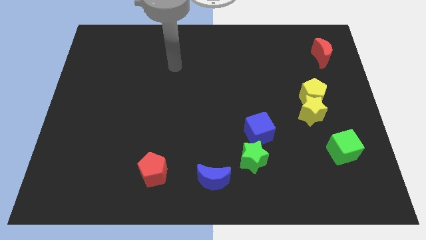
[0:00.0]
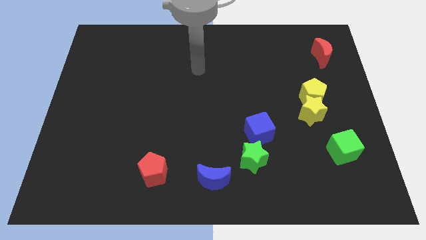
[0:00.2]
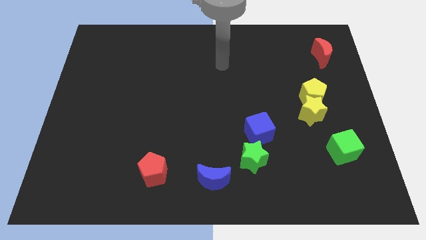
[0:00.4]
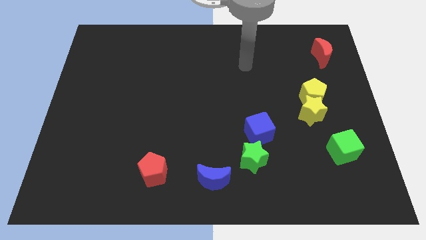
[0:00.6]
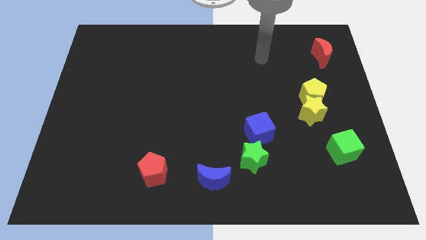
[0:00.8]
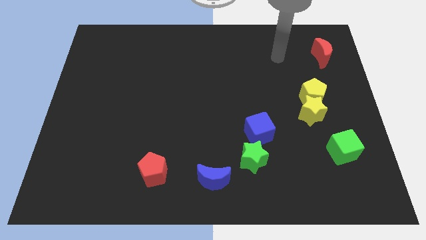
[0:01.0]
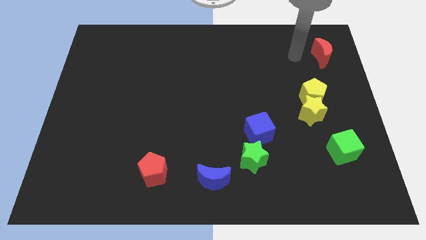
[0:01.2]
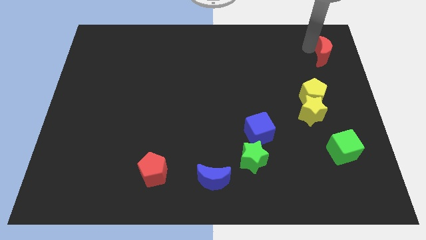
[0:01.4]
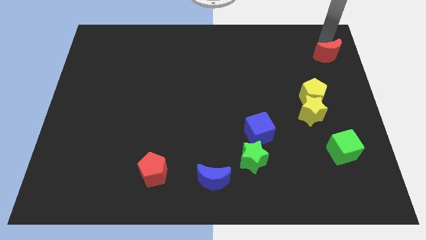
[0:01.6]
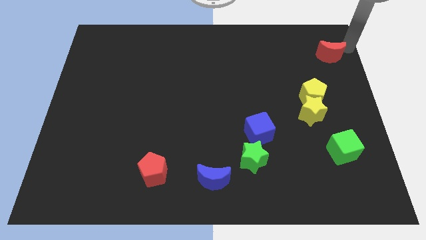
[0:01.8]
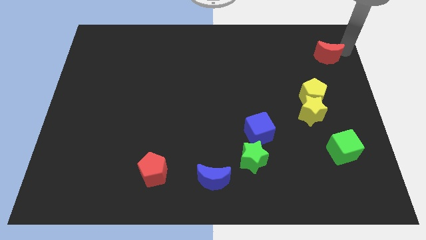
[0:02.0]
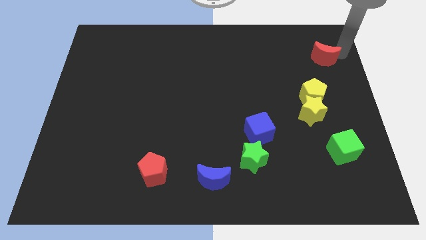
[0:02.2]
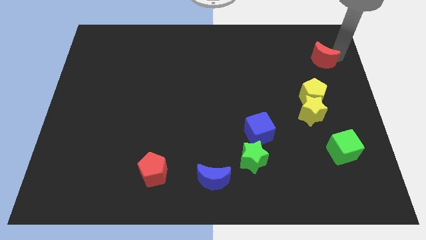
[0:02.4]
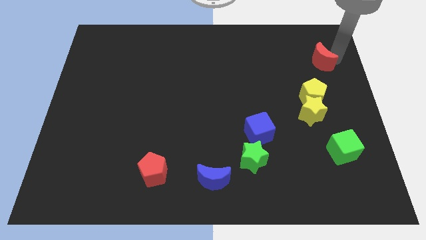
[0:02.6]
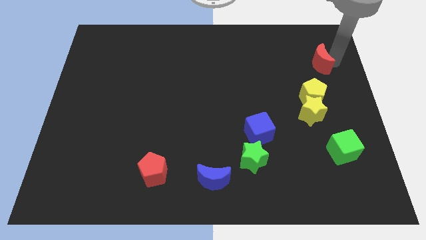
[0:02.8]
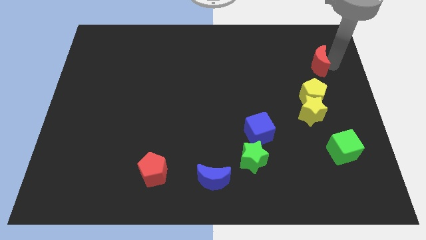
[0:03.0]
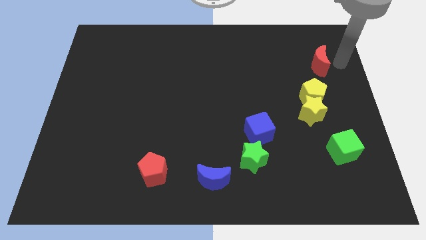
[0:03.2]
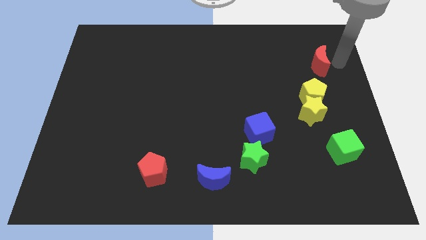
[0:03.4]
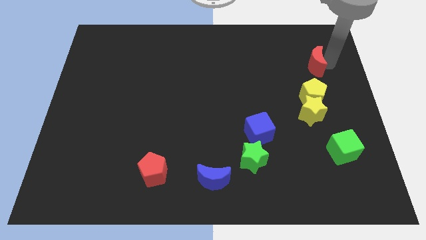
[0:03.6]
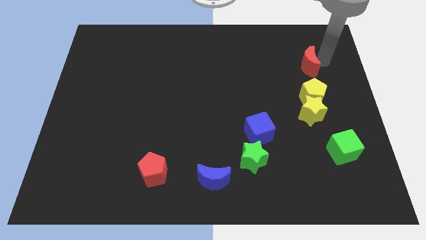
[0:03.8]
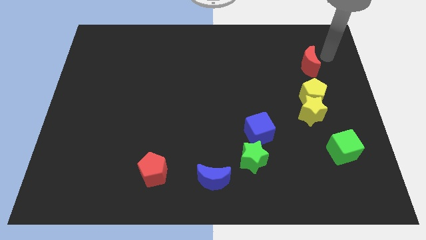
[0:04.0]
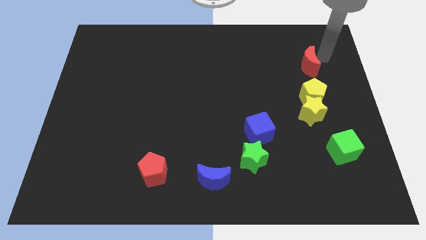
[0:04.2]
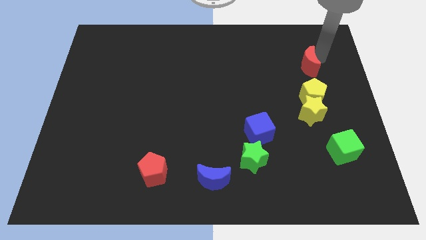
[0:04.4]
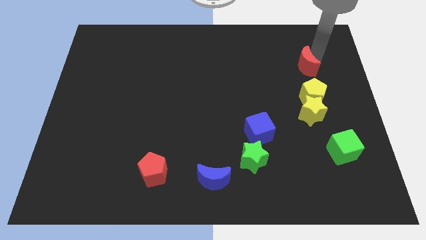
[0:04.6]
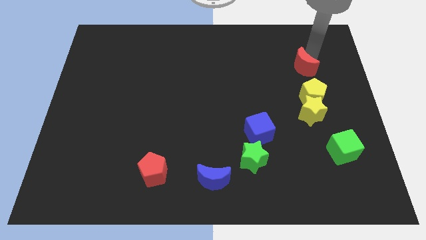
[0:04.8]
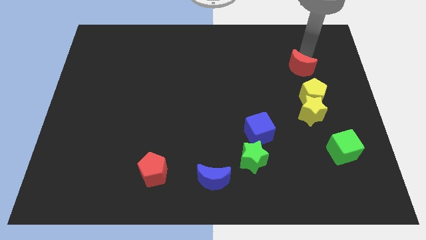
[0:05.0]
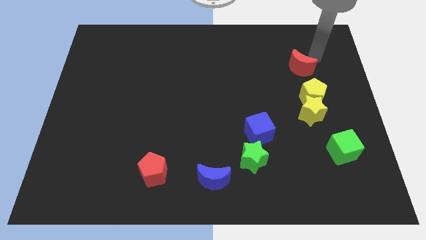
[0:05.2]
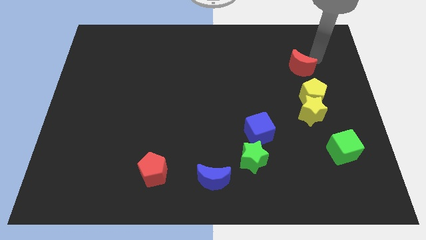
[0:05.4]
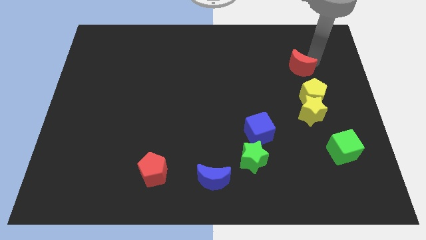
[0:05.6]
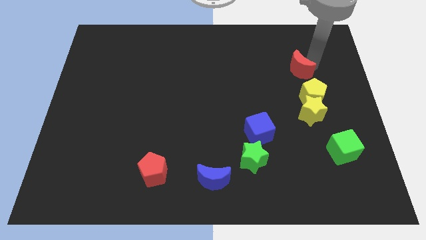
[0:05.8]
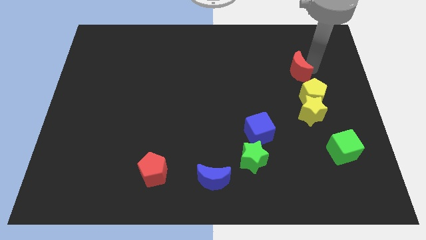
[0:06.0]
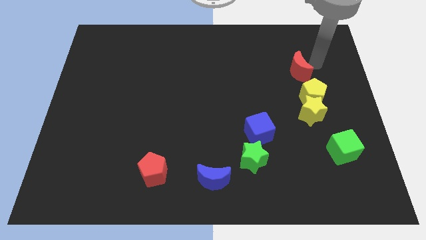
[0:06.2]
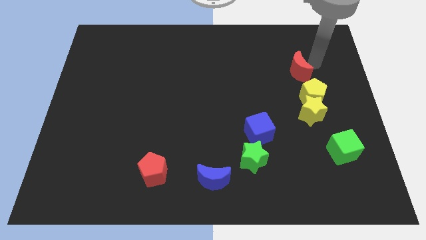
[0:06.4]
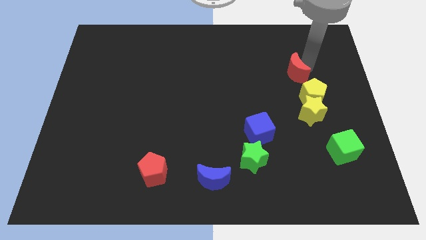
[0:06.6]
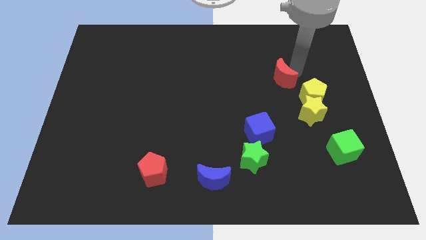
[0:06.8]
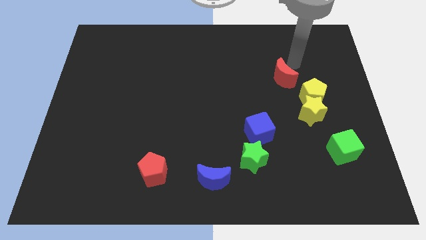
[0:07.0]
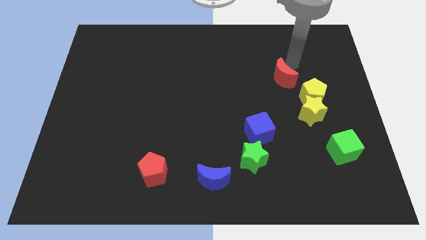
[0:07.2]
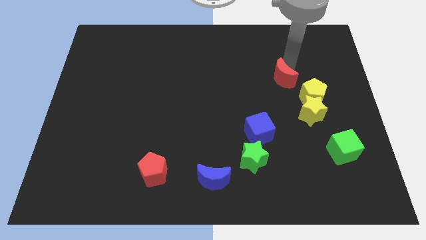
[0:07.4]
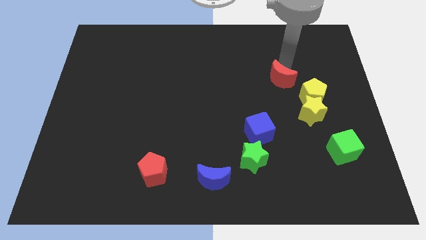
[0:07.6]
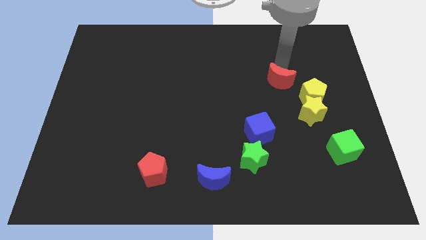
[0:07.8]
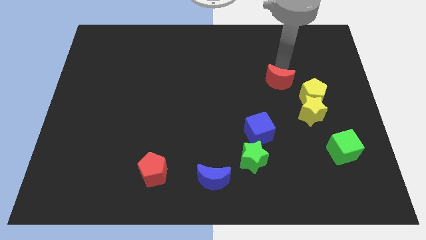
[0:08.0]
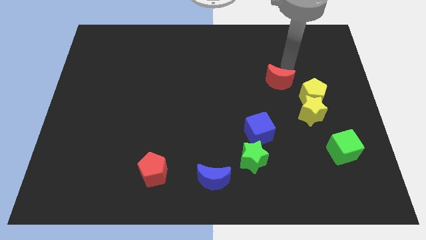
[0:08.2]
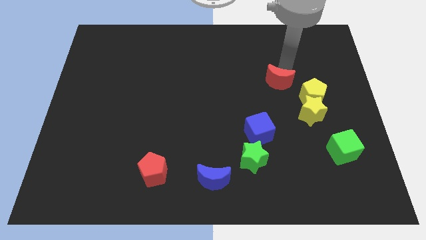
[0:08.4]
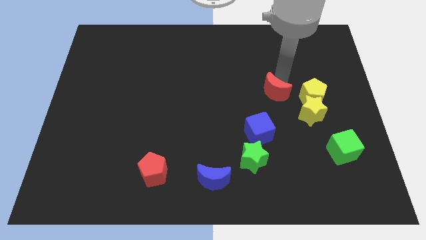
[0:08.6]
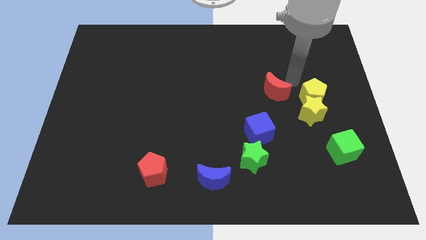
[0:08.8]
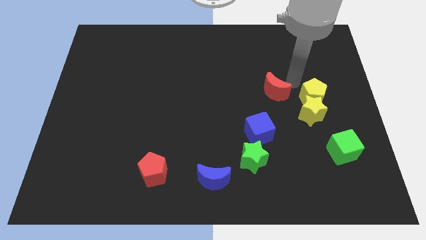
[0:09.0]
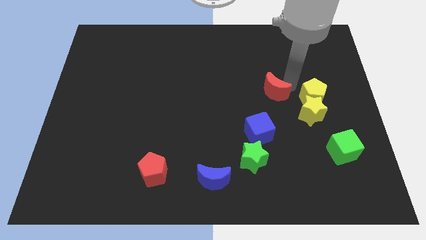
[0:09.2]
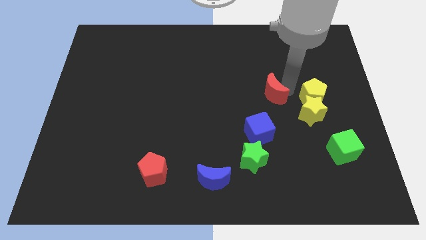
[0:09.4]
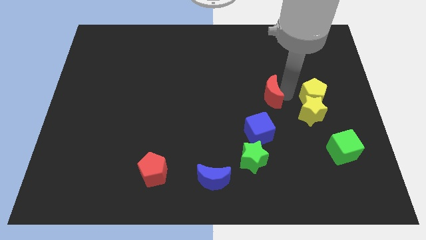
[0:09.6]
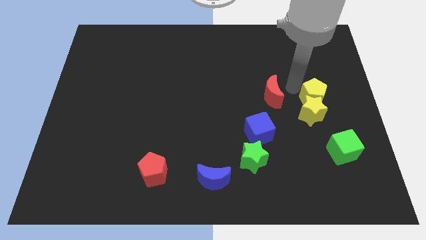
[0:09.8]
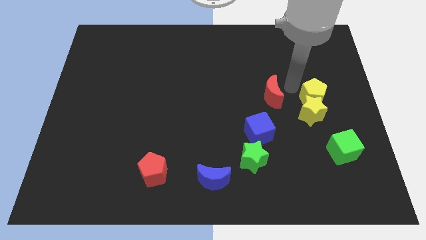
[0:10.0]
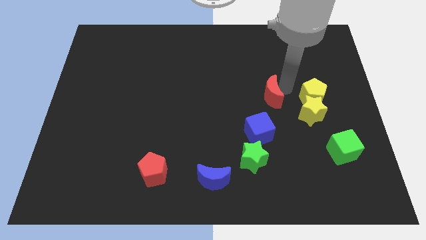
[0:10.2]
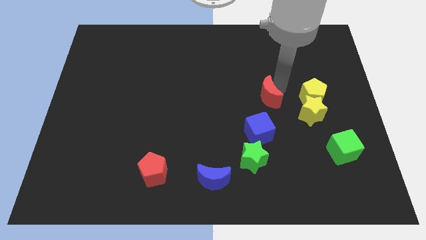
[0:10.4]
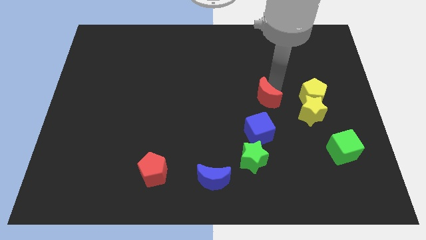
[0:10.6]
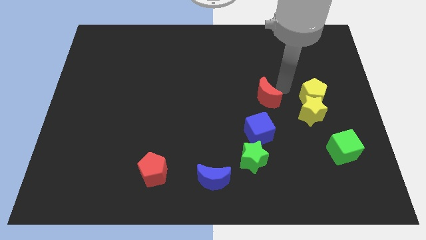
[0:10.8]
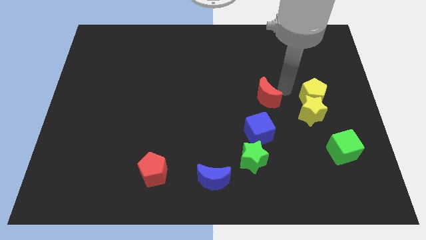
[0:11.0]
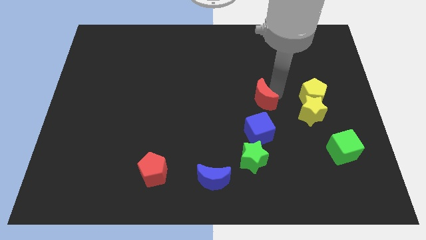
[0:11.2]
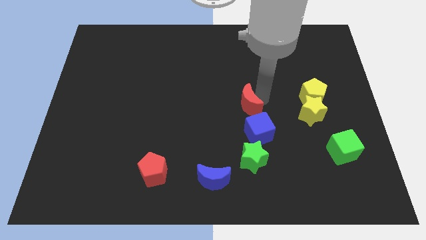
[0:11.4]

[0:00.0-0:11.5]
slide the red moon to the top left side of the blue cube
